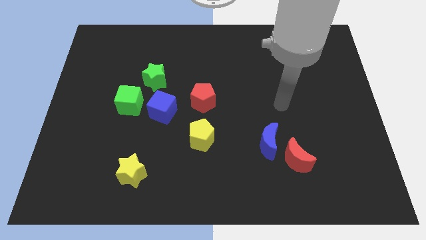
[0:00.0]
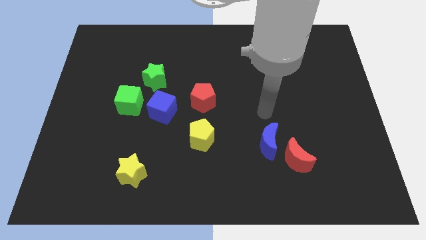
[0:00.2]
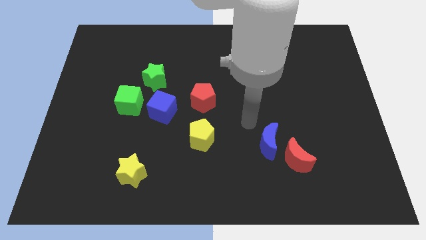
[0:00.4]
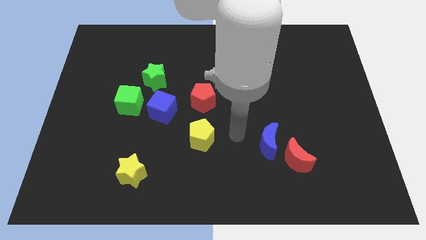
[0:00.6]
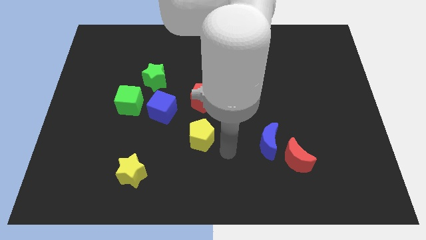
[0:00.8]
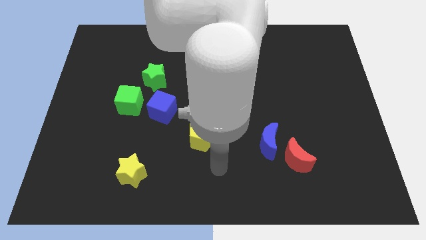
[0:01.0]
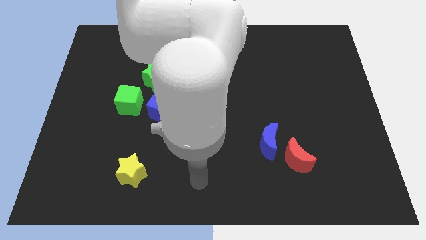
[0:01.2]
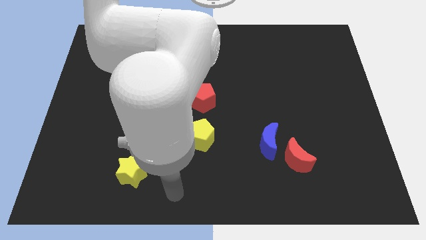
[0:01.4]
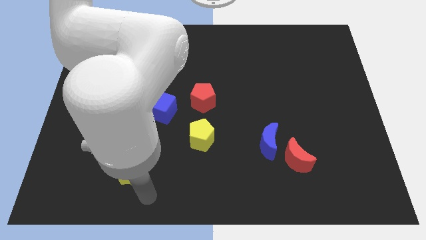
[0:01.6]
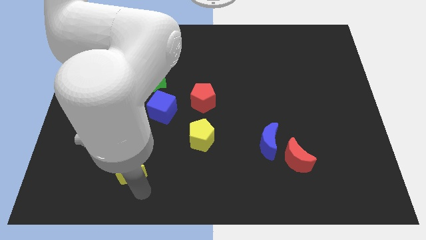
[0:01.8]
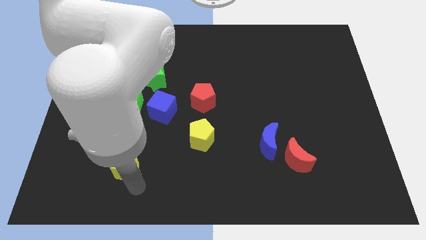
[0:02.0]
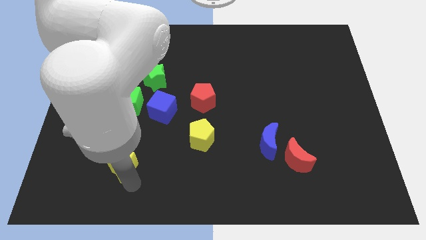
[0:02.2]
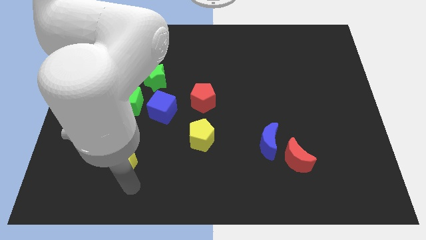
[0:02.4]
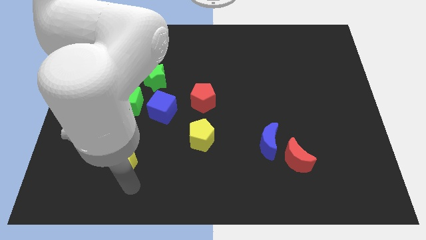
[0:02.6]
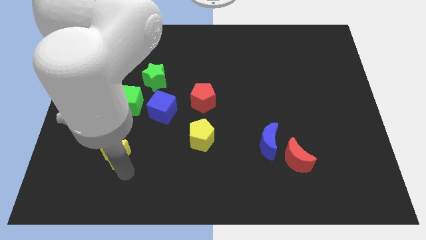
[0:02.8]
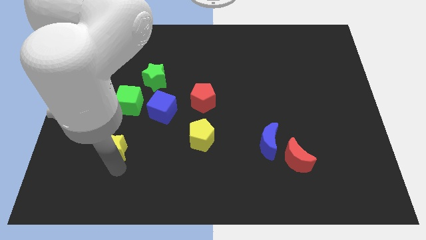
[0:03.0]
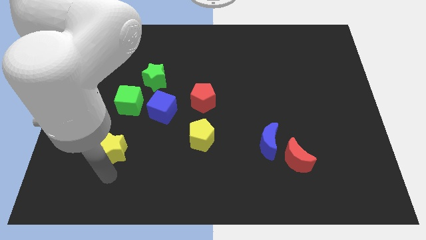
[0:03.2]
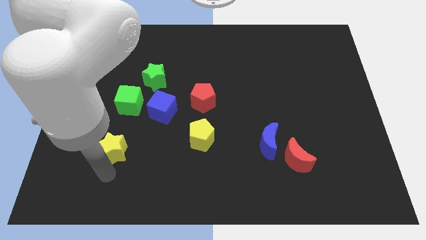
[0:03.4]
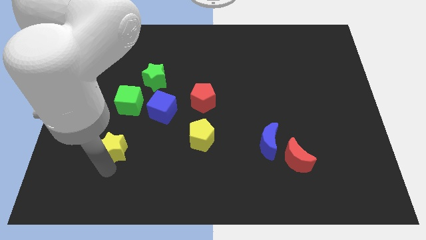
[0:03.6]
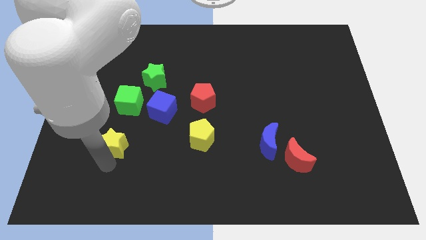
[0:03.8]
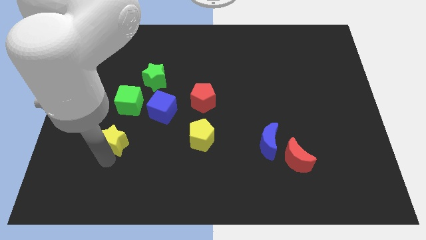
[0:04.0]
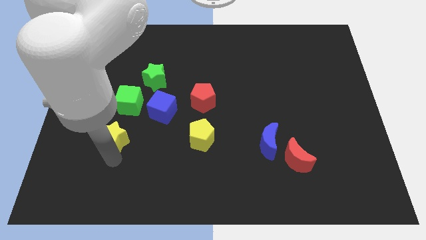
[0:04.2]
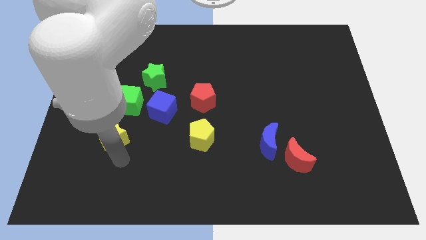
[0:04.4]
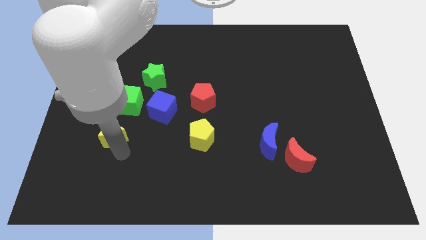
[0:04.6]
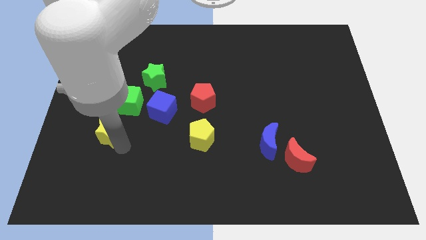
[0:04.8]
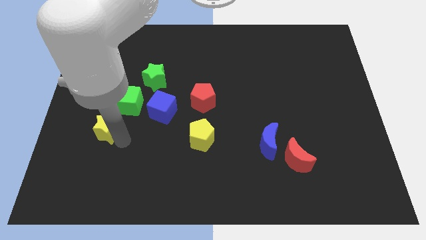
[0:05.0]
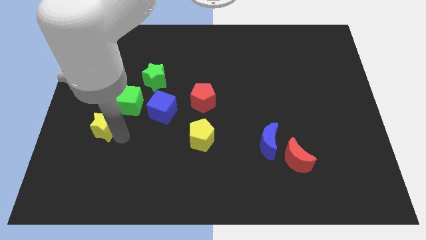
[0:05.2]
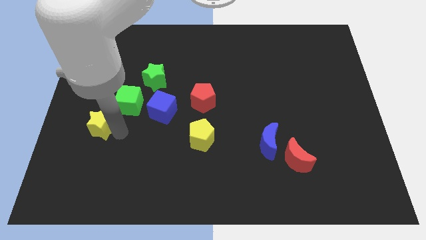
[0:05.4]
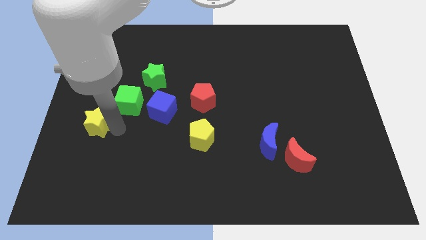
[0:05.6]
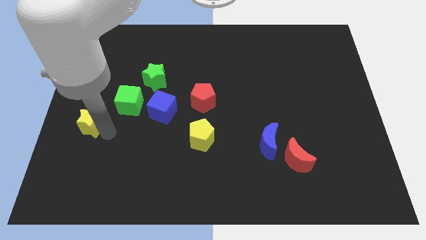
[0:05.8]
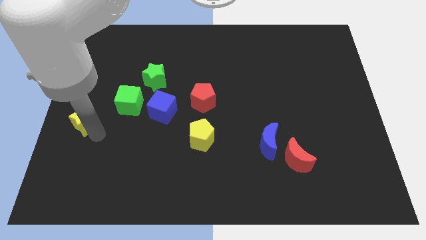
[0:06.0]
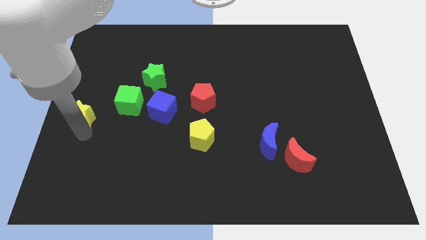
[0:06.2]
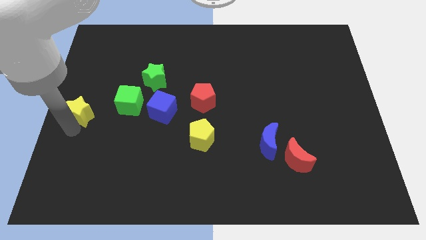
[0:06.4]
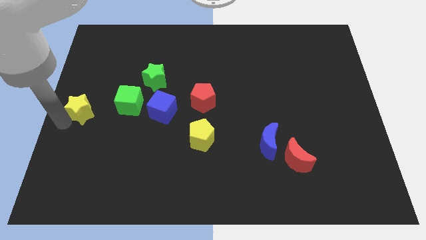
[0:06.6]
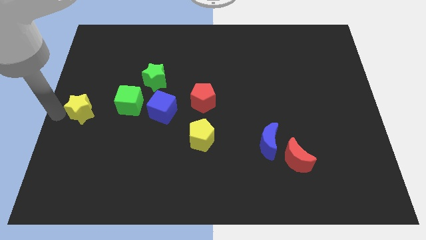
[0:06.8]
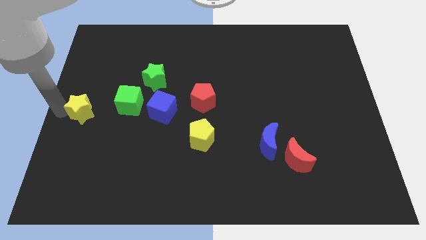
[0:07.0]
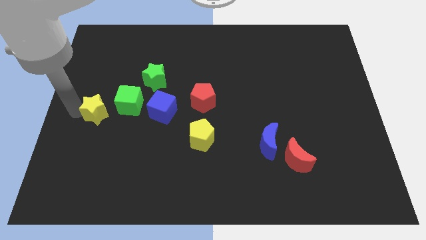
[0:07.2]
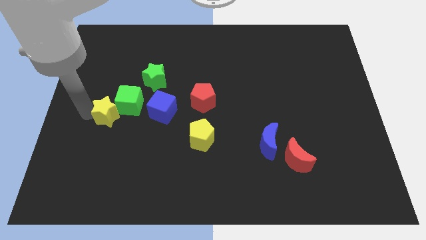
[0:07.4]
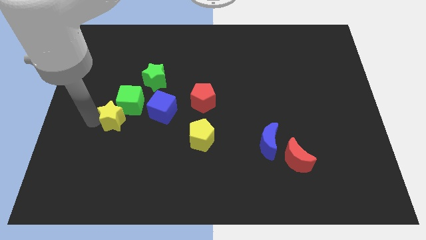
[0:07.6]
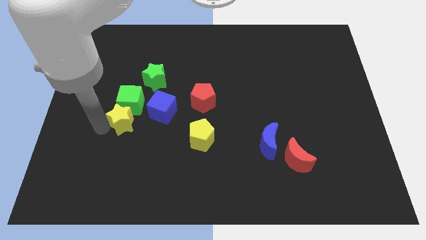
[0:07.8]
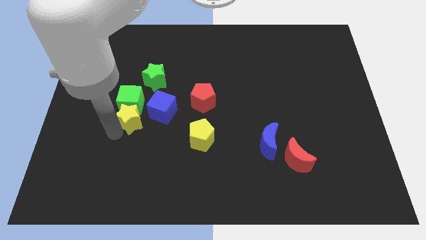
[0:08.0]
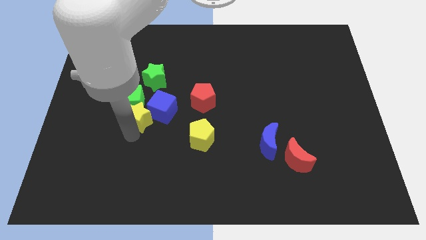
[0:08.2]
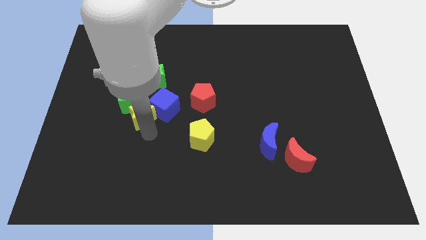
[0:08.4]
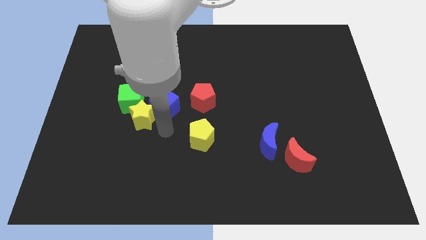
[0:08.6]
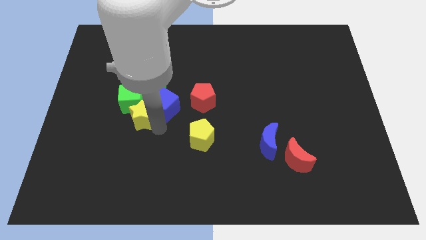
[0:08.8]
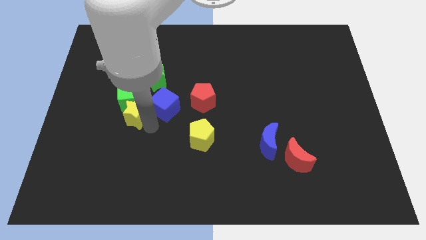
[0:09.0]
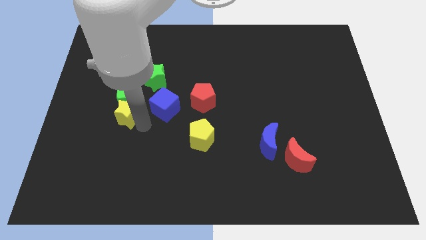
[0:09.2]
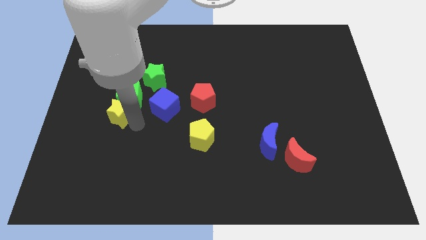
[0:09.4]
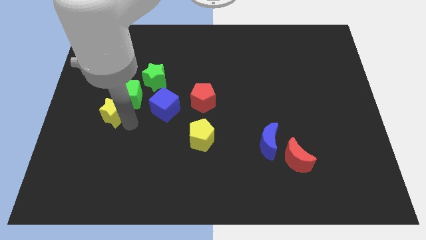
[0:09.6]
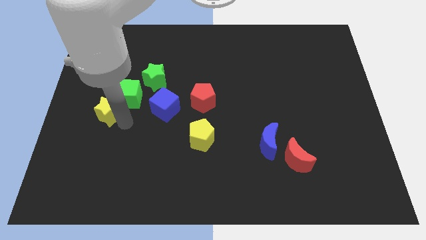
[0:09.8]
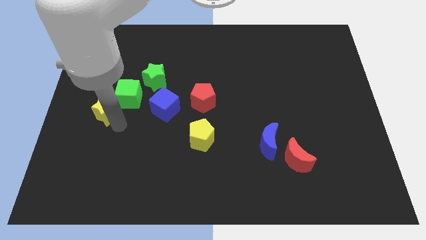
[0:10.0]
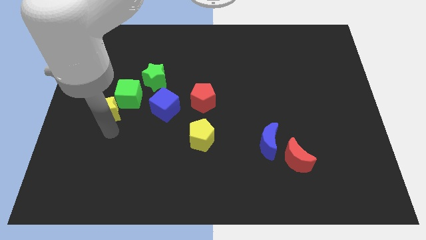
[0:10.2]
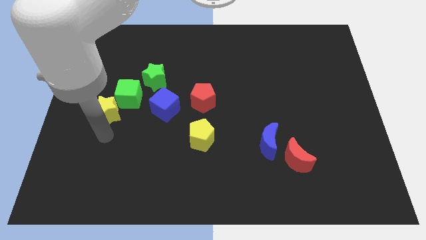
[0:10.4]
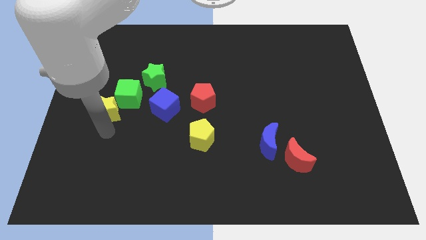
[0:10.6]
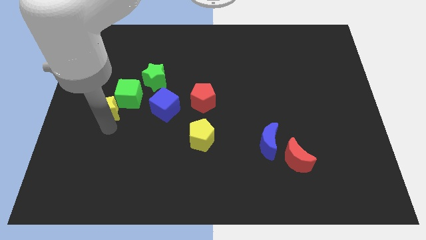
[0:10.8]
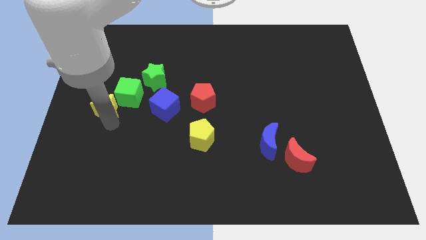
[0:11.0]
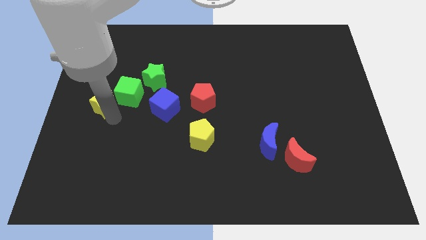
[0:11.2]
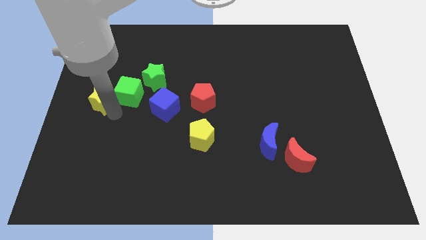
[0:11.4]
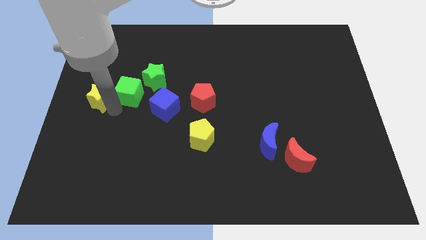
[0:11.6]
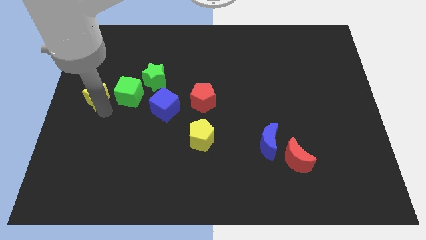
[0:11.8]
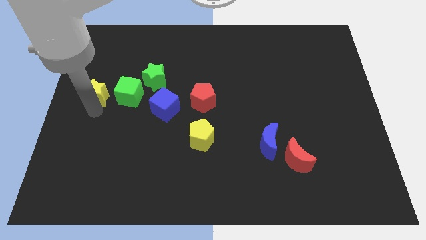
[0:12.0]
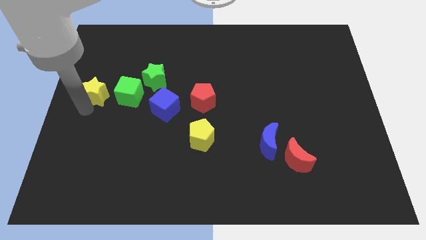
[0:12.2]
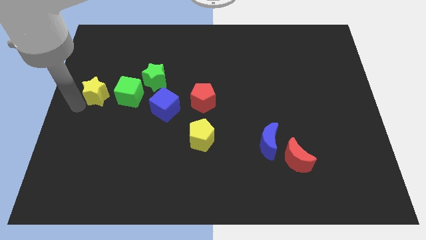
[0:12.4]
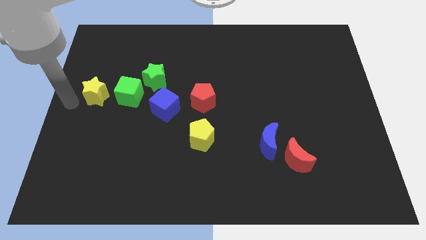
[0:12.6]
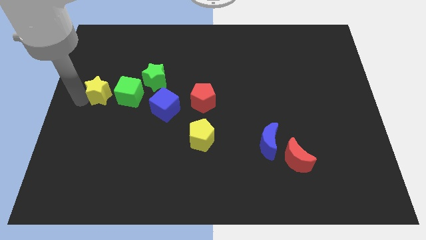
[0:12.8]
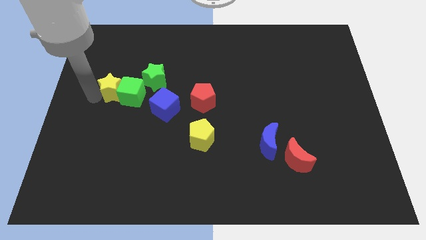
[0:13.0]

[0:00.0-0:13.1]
move the yellow star upwards

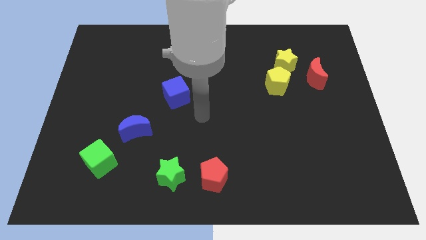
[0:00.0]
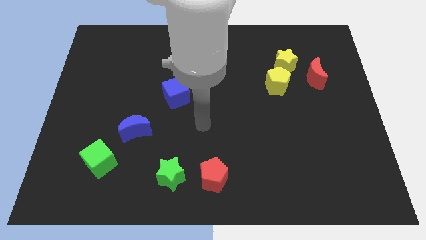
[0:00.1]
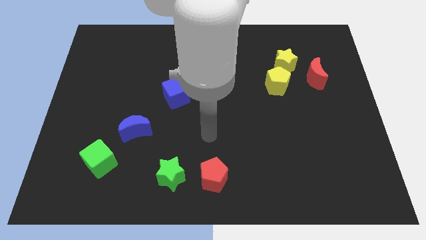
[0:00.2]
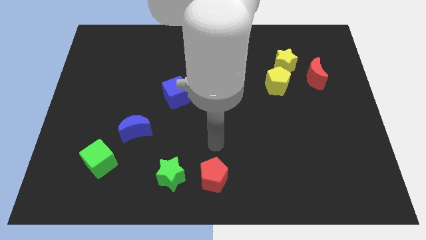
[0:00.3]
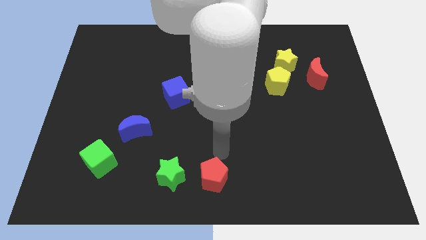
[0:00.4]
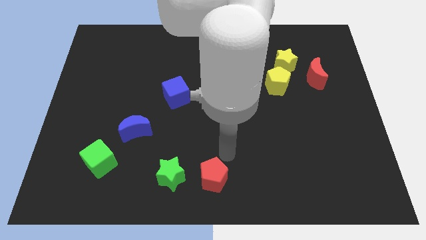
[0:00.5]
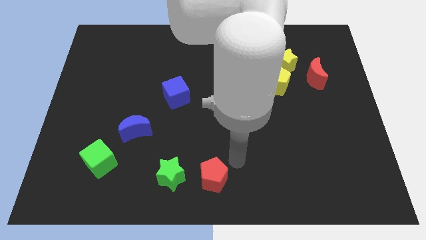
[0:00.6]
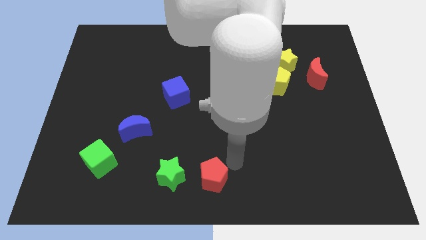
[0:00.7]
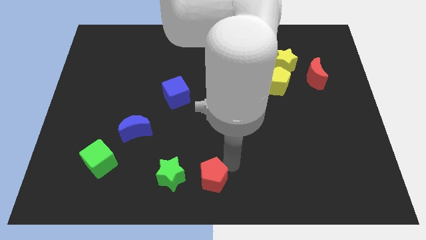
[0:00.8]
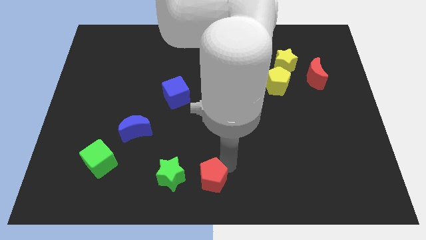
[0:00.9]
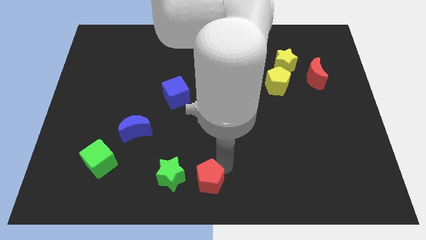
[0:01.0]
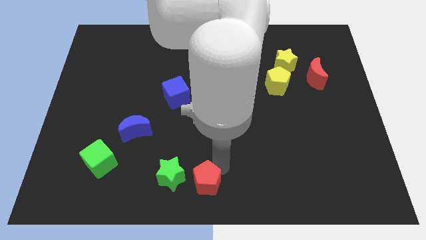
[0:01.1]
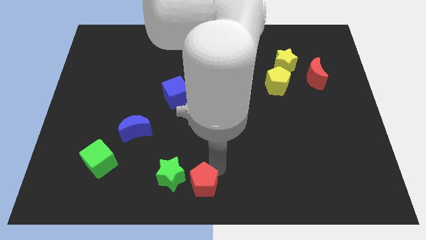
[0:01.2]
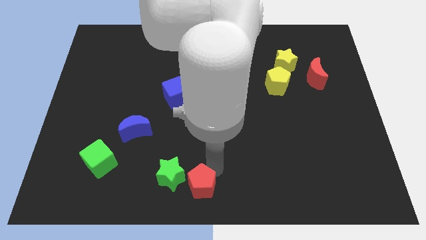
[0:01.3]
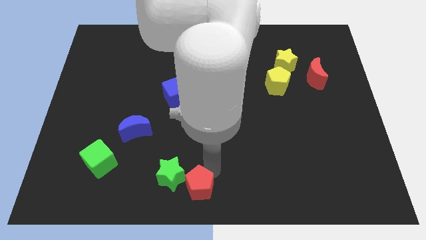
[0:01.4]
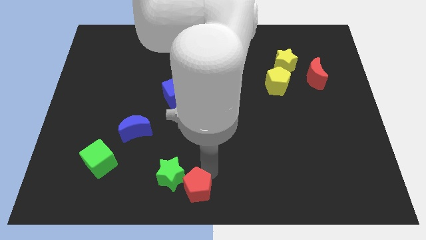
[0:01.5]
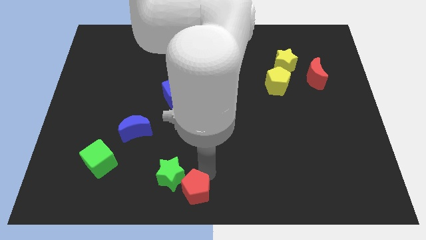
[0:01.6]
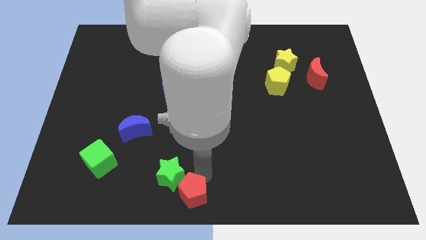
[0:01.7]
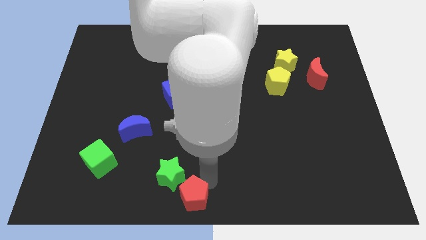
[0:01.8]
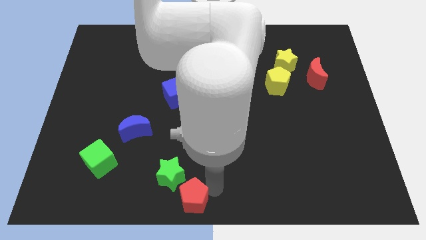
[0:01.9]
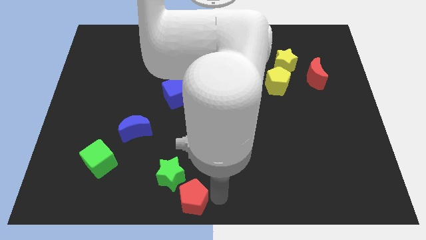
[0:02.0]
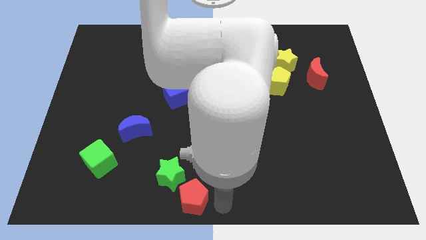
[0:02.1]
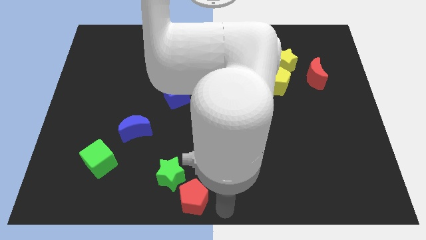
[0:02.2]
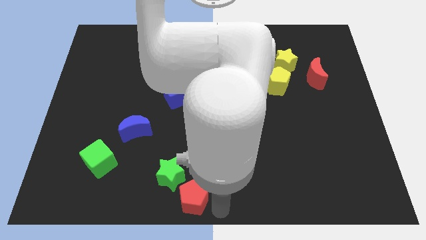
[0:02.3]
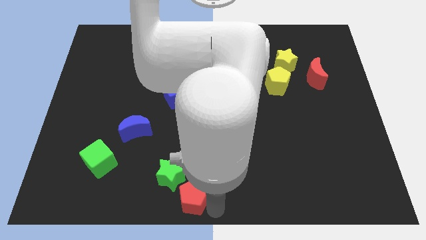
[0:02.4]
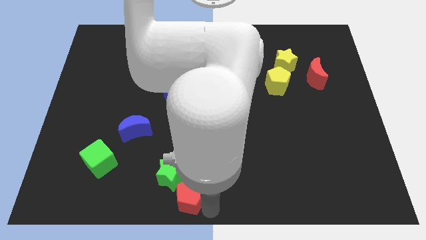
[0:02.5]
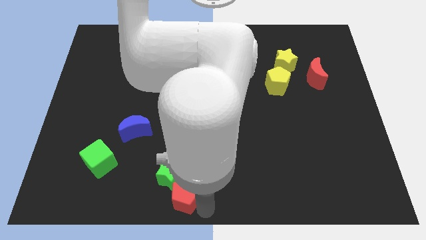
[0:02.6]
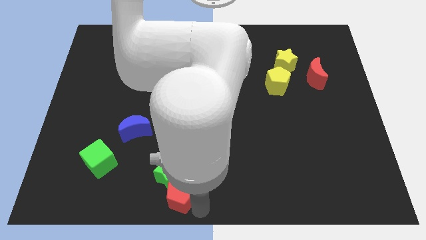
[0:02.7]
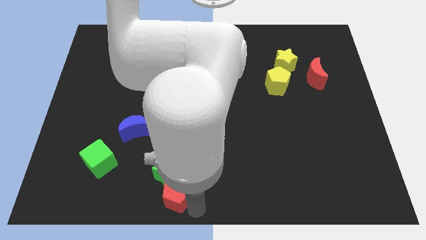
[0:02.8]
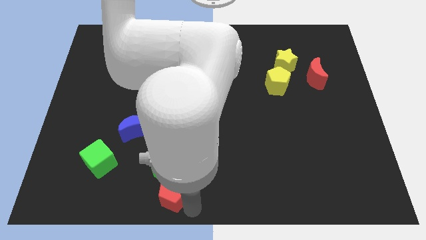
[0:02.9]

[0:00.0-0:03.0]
slightly push the red pentagon to the left
